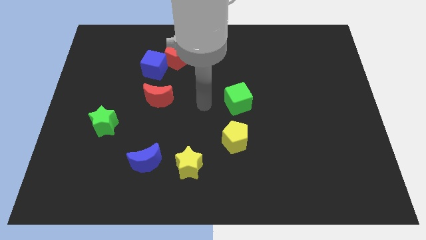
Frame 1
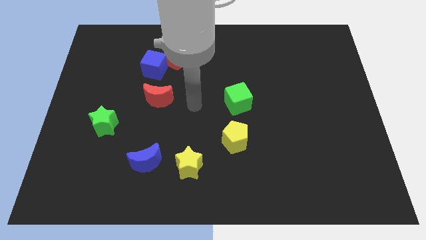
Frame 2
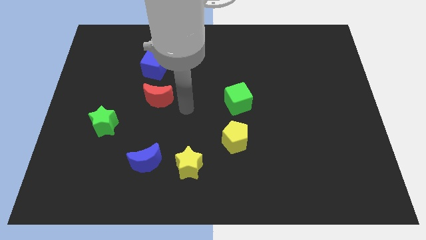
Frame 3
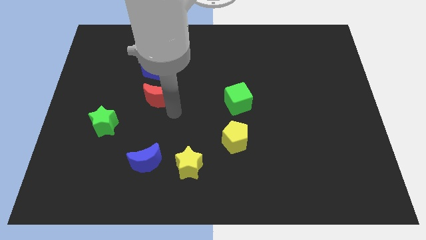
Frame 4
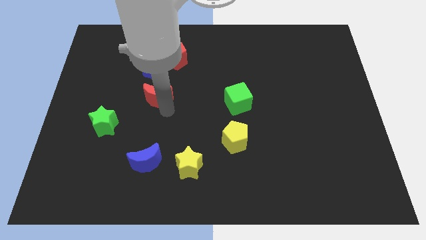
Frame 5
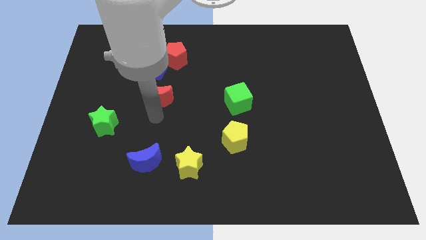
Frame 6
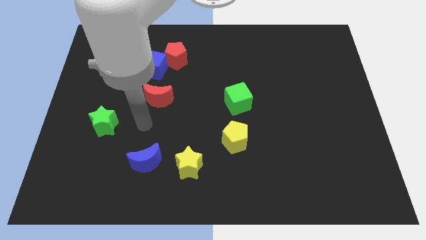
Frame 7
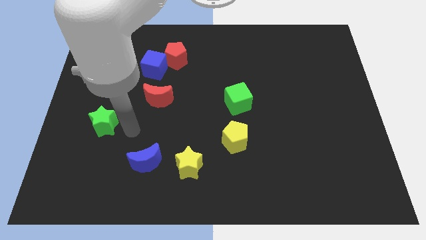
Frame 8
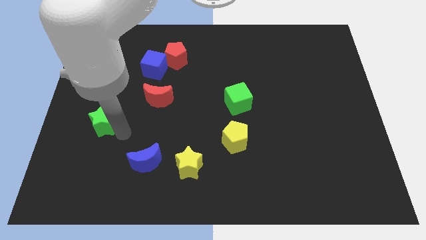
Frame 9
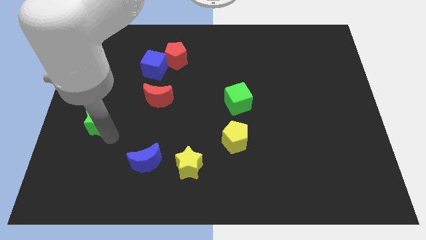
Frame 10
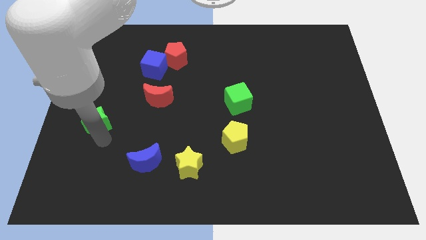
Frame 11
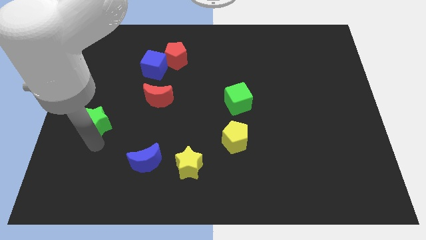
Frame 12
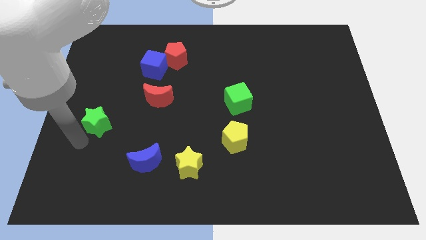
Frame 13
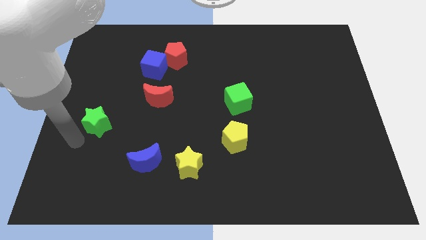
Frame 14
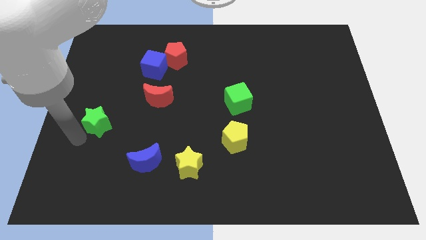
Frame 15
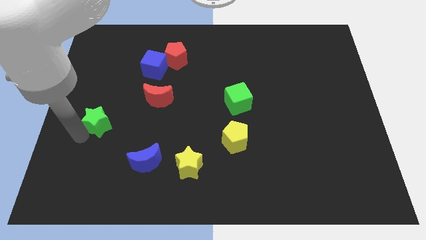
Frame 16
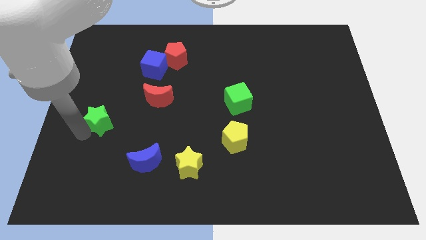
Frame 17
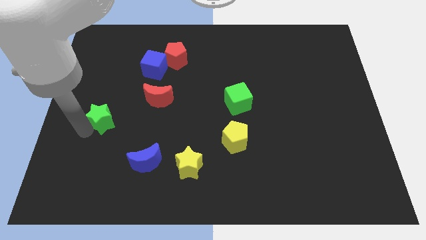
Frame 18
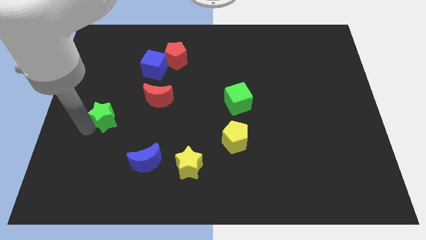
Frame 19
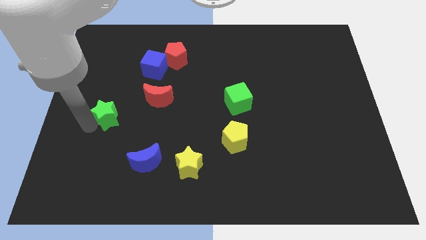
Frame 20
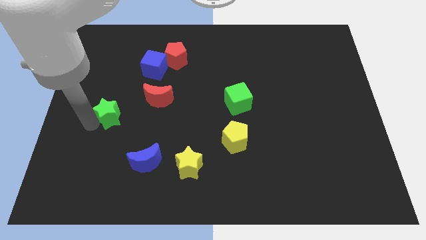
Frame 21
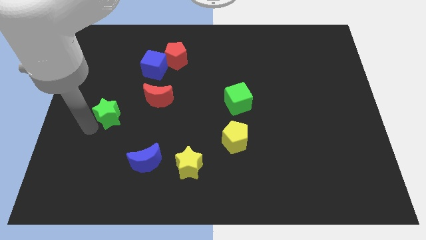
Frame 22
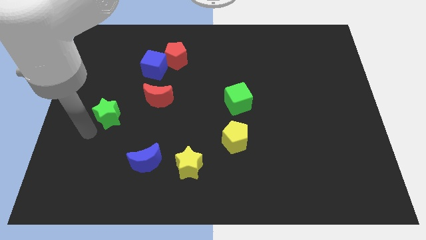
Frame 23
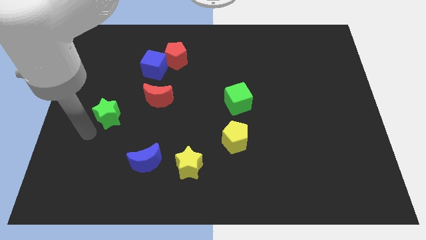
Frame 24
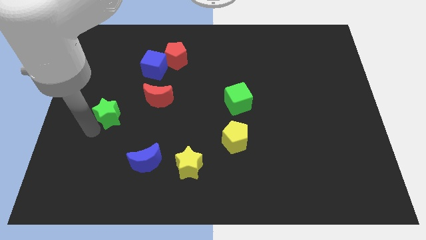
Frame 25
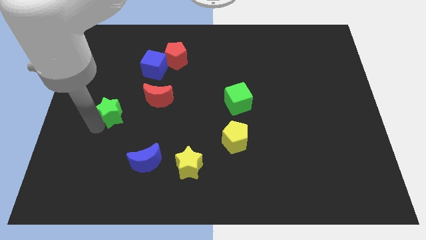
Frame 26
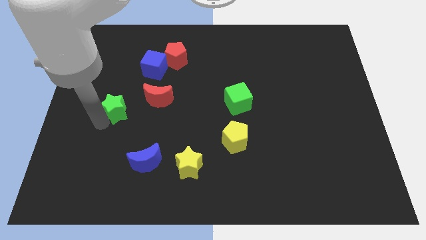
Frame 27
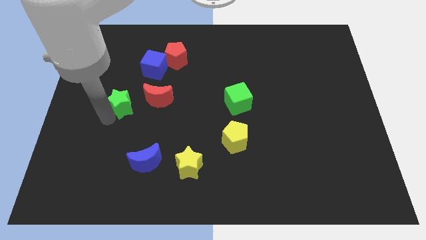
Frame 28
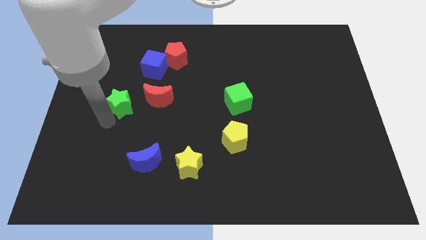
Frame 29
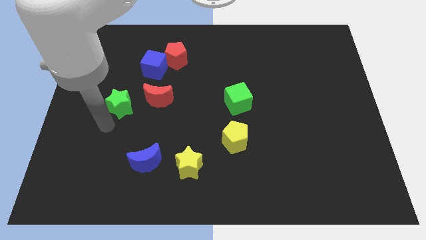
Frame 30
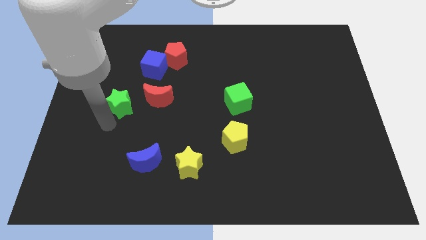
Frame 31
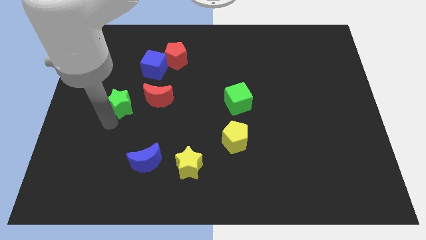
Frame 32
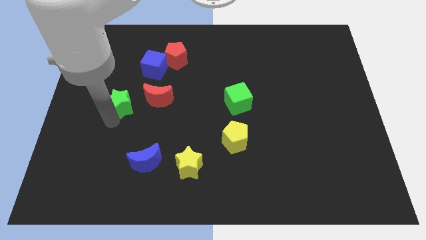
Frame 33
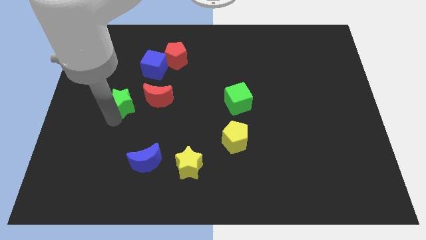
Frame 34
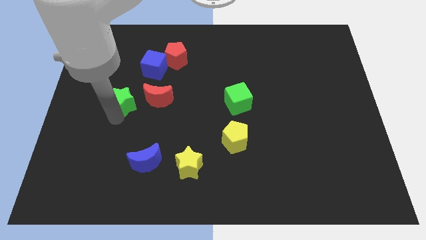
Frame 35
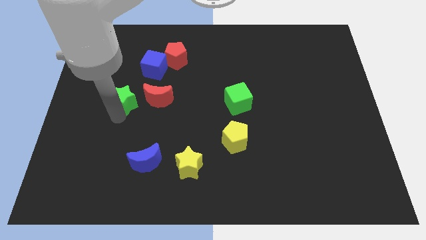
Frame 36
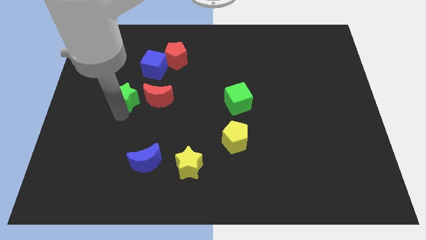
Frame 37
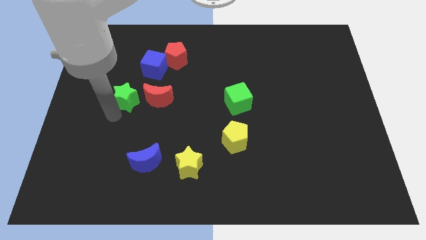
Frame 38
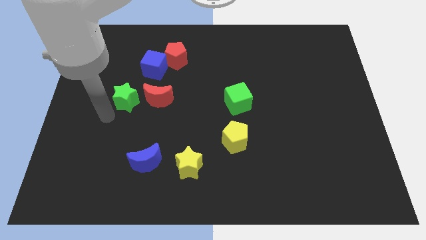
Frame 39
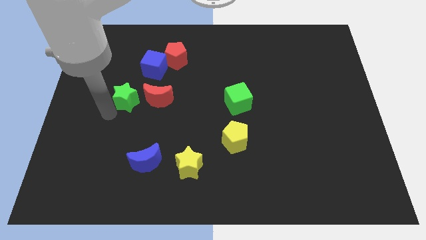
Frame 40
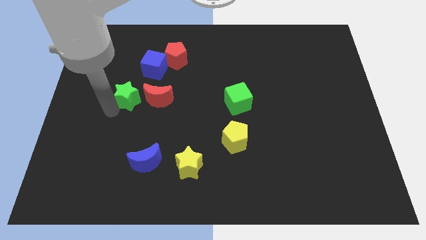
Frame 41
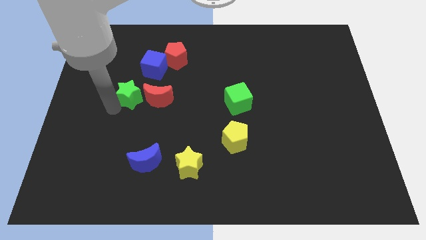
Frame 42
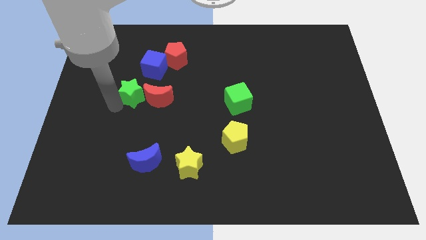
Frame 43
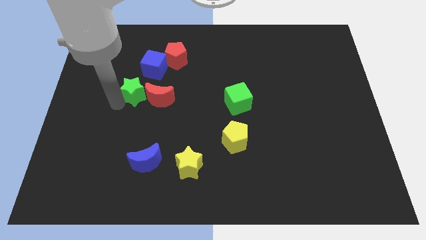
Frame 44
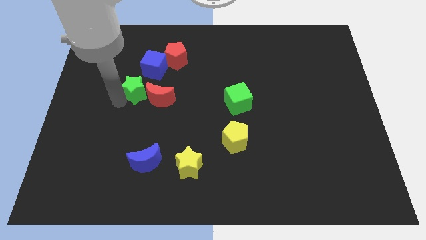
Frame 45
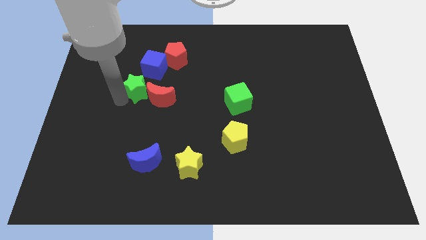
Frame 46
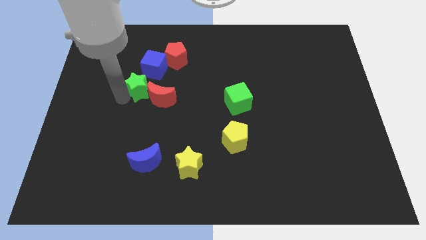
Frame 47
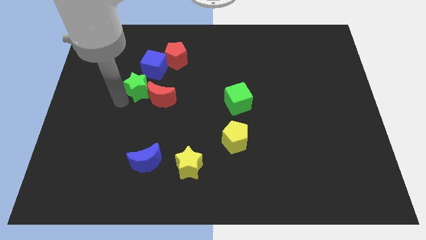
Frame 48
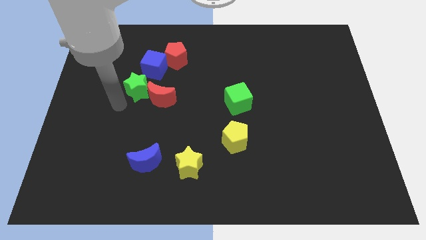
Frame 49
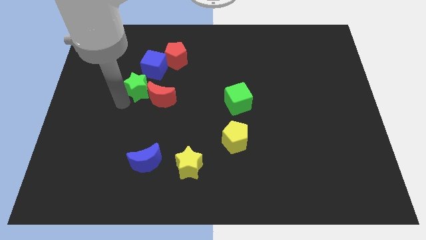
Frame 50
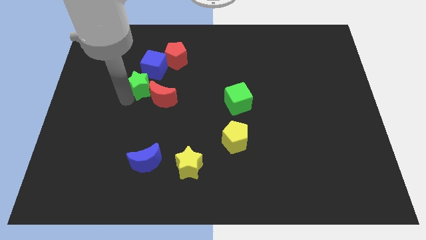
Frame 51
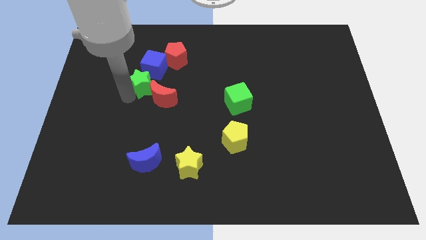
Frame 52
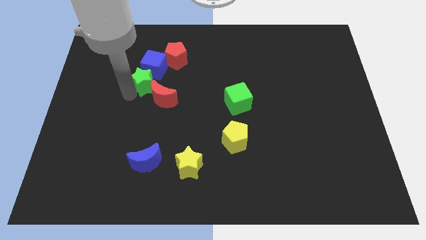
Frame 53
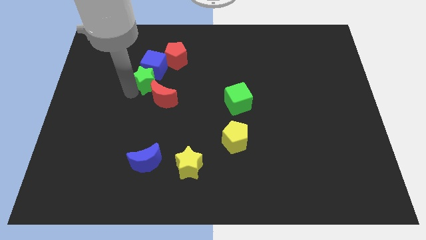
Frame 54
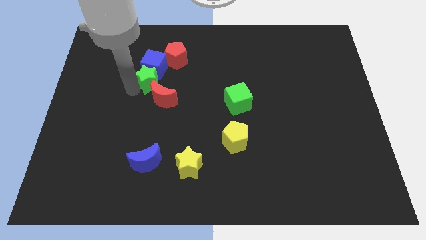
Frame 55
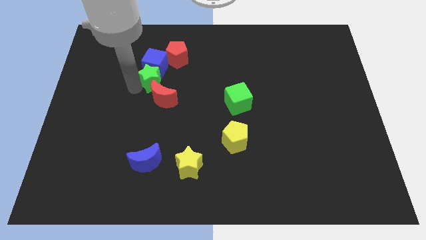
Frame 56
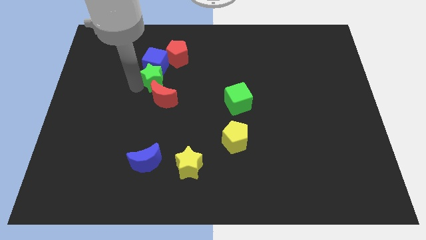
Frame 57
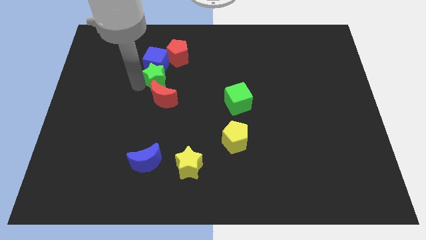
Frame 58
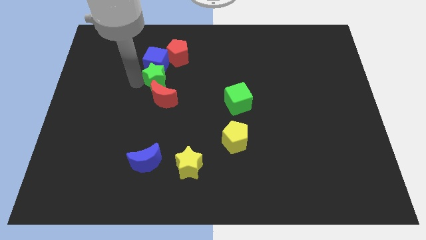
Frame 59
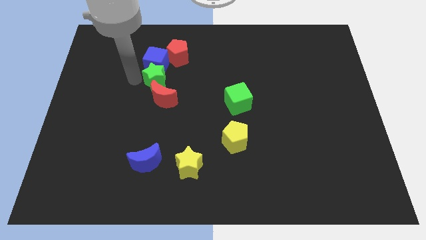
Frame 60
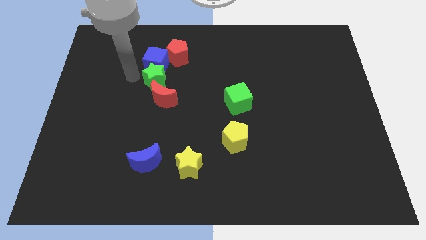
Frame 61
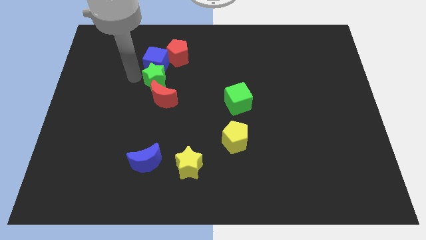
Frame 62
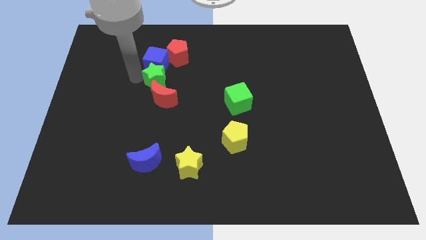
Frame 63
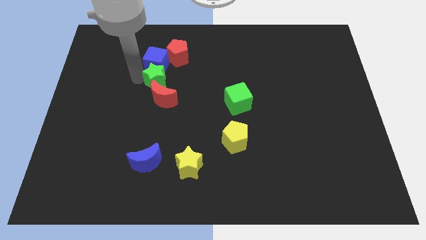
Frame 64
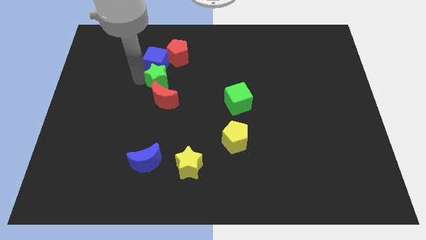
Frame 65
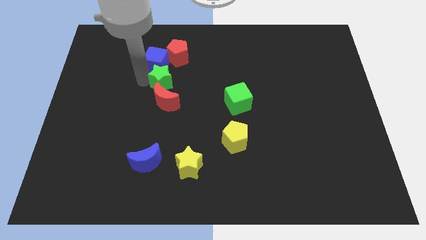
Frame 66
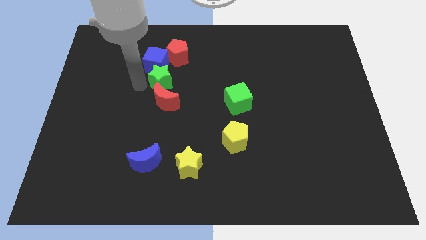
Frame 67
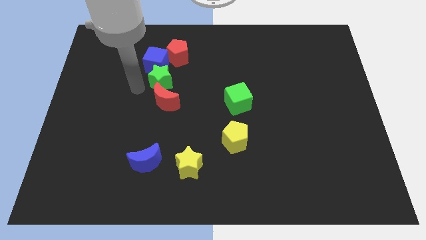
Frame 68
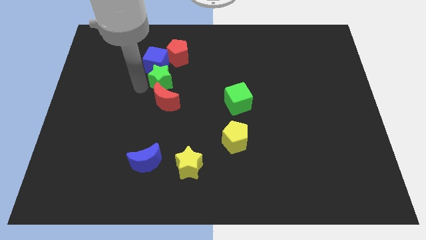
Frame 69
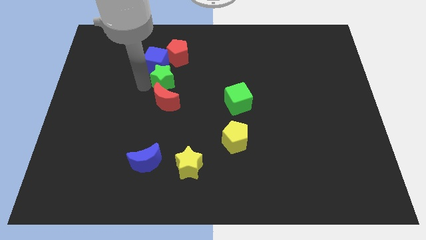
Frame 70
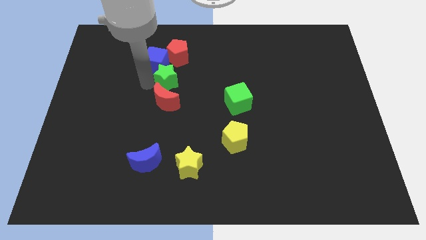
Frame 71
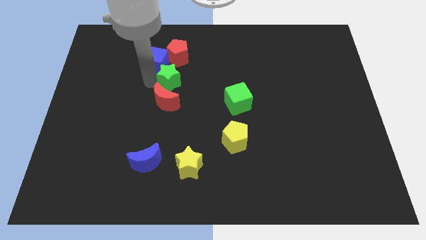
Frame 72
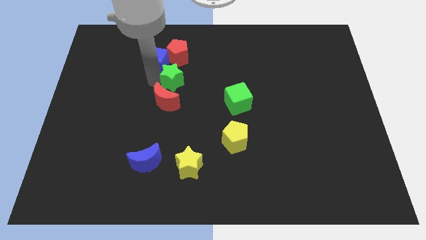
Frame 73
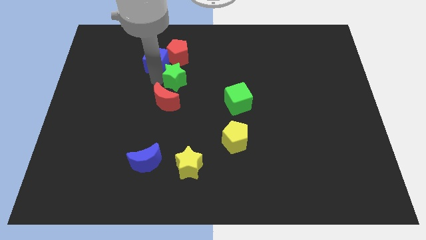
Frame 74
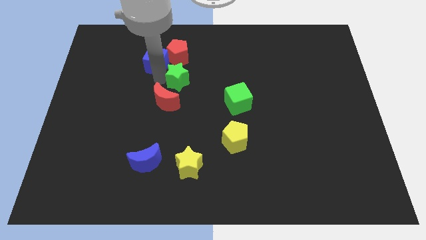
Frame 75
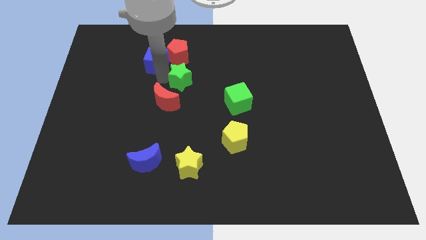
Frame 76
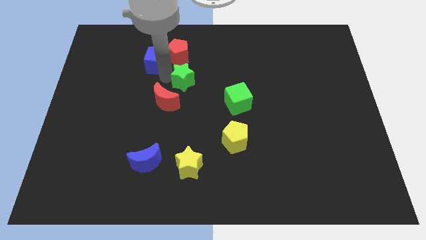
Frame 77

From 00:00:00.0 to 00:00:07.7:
put the green star diagonally down and to the right of the red pentagon
